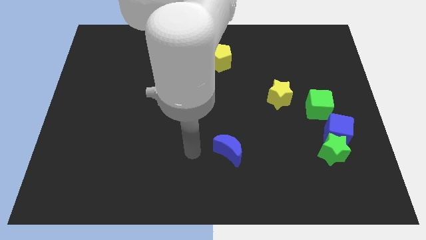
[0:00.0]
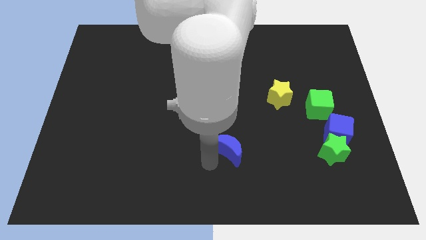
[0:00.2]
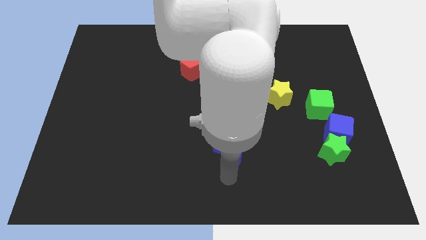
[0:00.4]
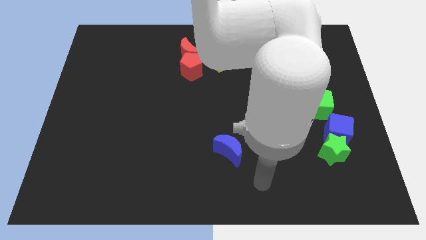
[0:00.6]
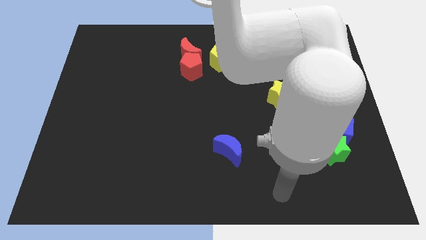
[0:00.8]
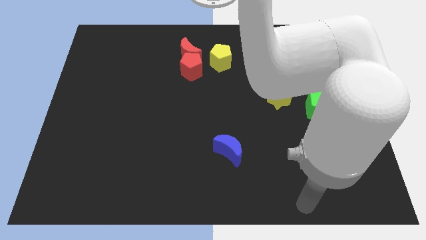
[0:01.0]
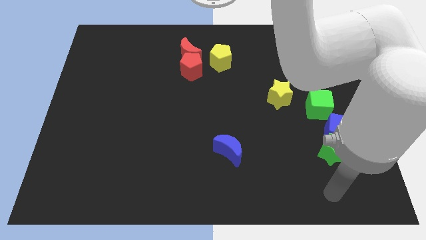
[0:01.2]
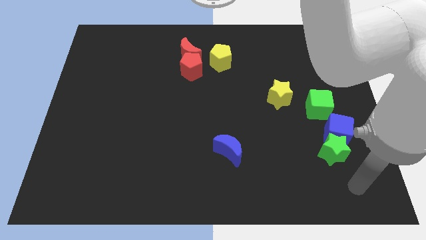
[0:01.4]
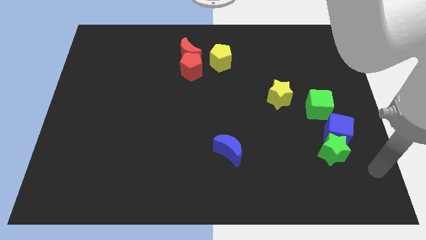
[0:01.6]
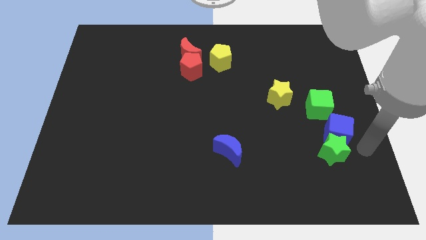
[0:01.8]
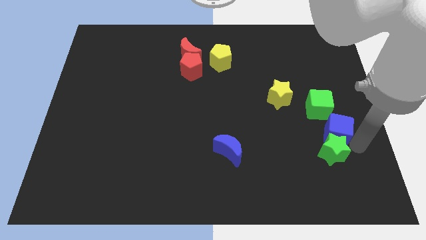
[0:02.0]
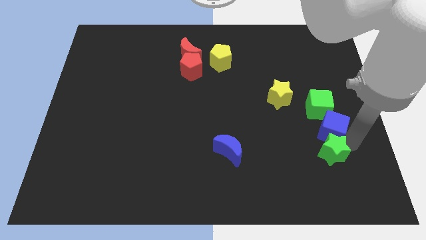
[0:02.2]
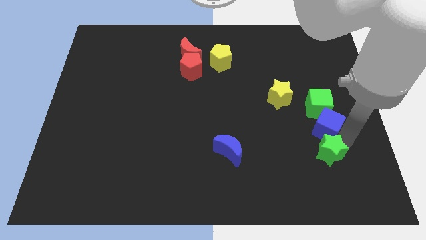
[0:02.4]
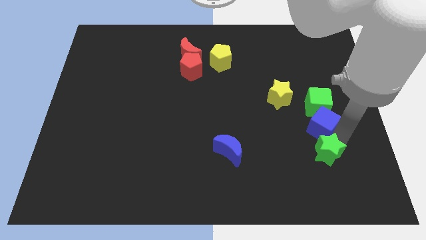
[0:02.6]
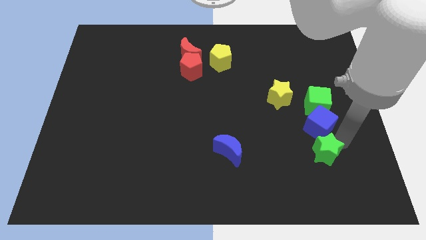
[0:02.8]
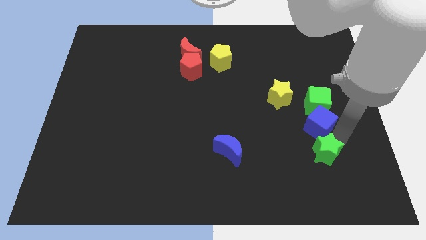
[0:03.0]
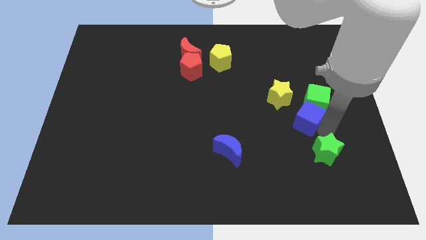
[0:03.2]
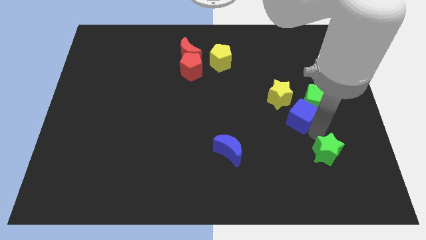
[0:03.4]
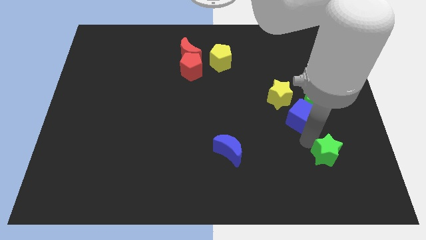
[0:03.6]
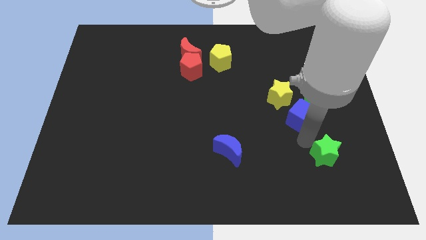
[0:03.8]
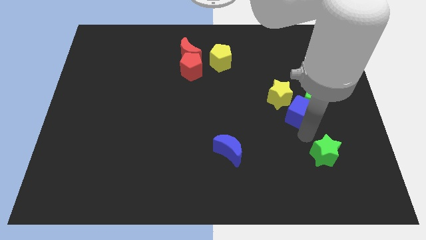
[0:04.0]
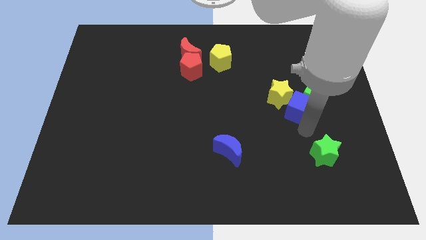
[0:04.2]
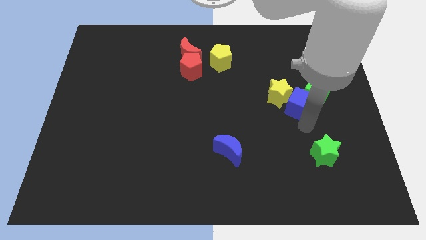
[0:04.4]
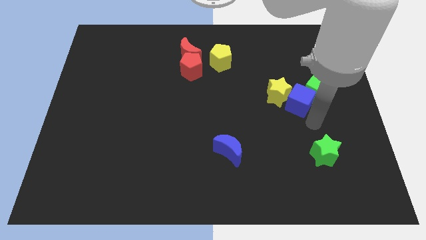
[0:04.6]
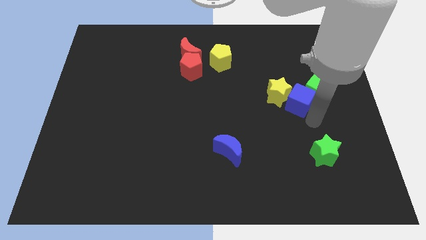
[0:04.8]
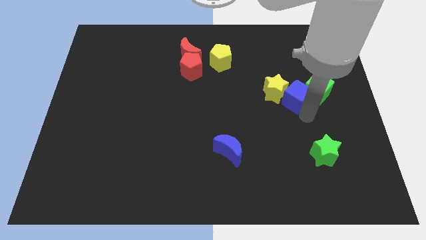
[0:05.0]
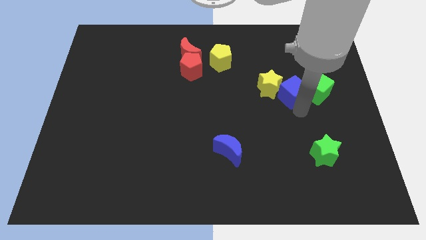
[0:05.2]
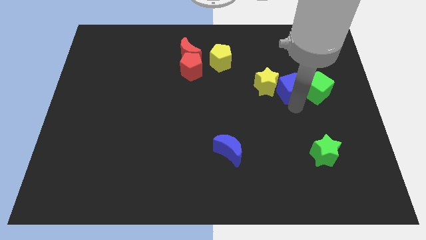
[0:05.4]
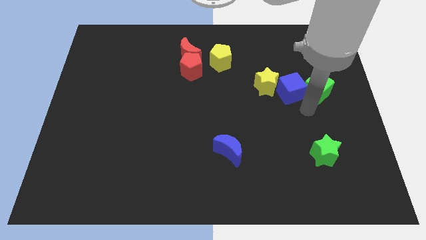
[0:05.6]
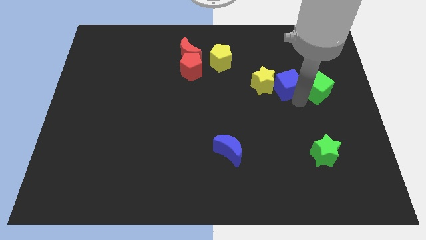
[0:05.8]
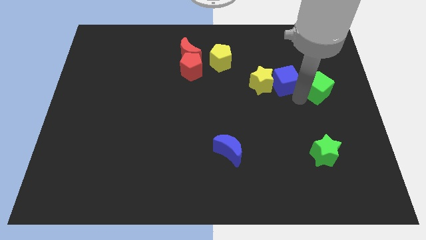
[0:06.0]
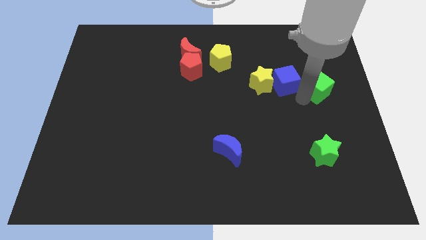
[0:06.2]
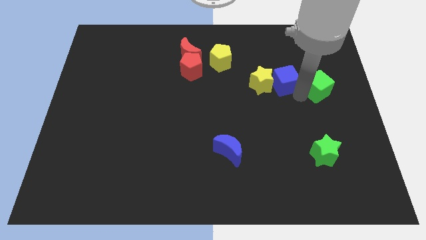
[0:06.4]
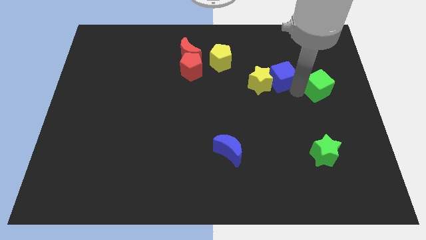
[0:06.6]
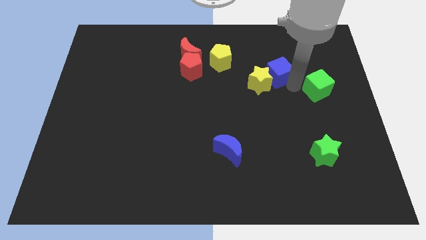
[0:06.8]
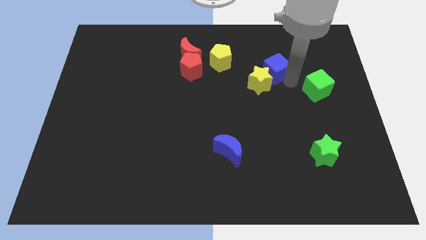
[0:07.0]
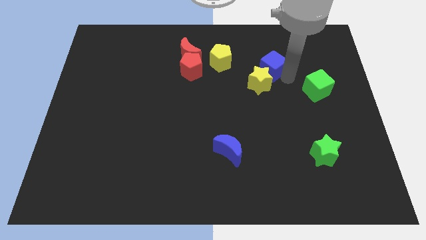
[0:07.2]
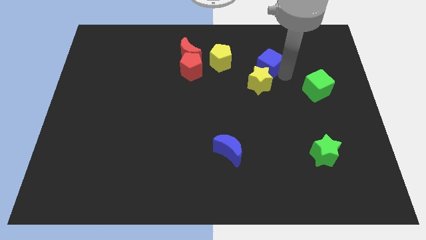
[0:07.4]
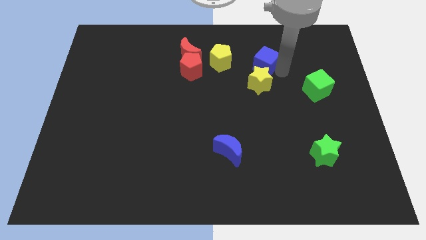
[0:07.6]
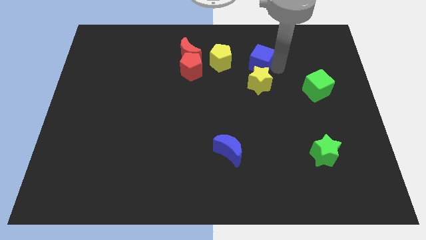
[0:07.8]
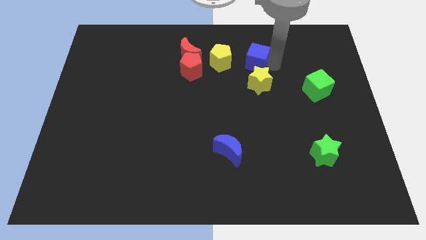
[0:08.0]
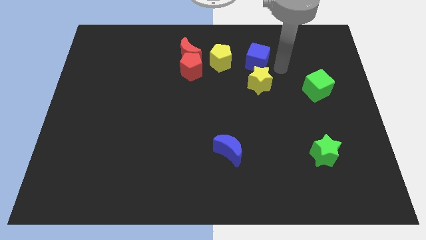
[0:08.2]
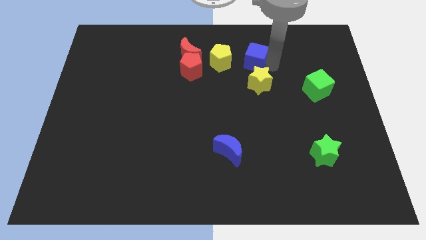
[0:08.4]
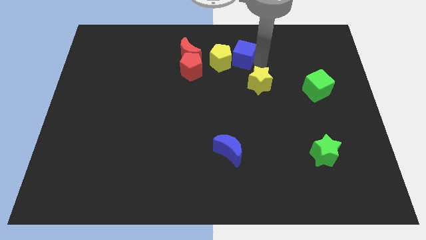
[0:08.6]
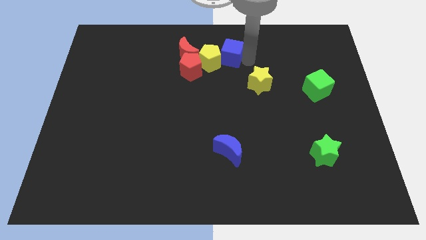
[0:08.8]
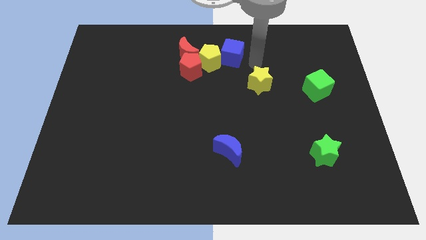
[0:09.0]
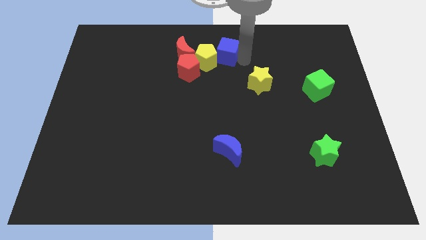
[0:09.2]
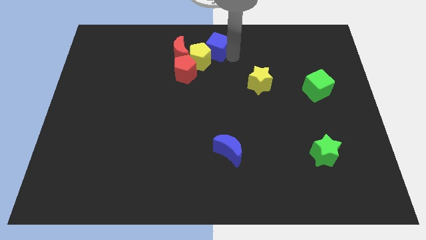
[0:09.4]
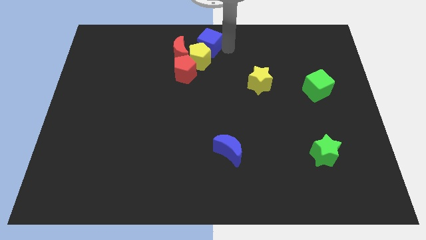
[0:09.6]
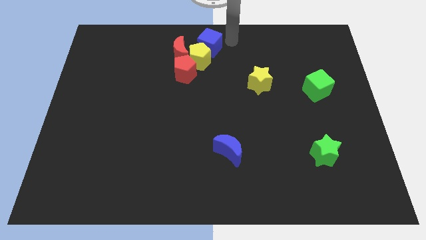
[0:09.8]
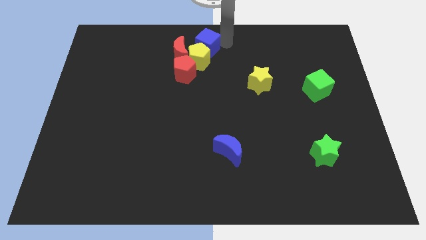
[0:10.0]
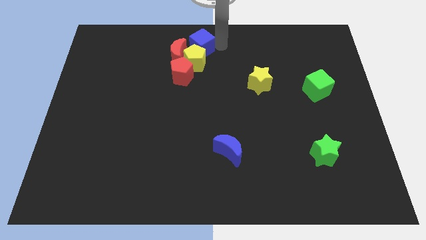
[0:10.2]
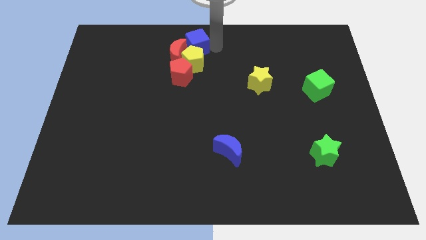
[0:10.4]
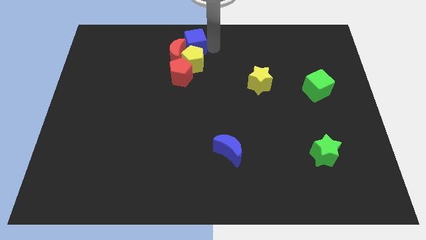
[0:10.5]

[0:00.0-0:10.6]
push the blue cube to the red moon

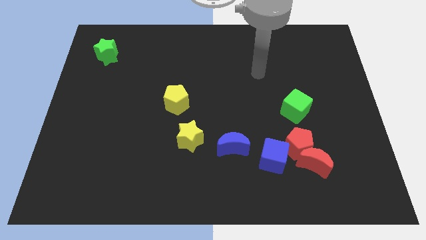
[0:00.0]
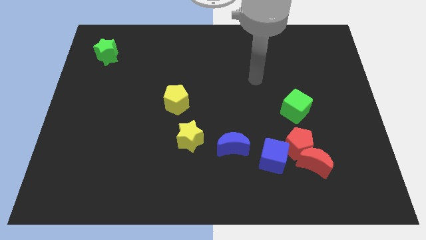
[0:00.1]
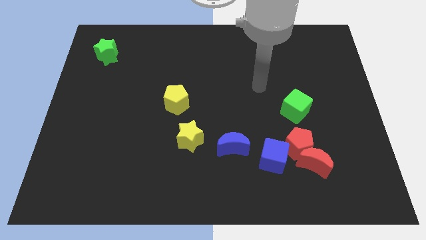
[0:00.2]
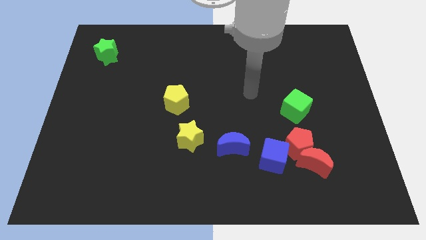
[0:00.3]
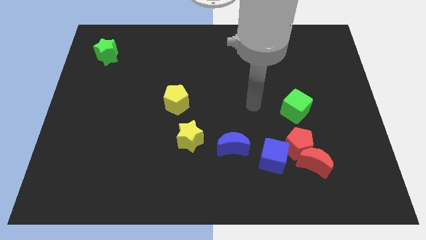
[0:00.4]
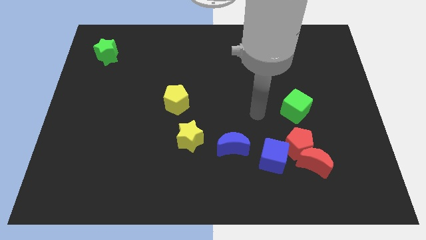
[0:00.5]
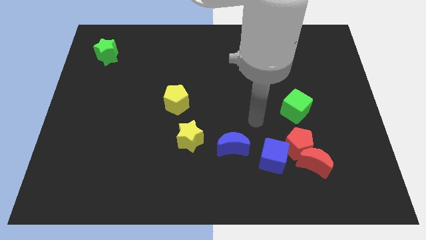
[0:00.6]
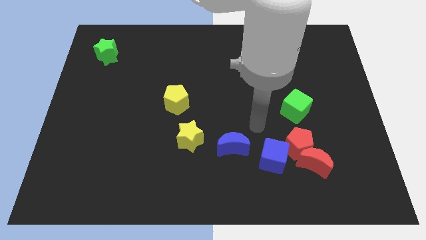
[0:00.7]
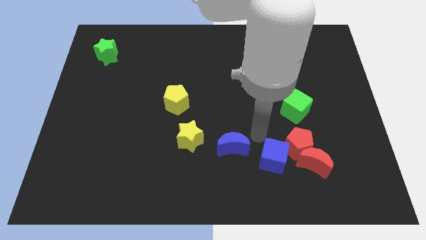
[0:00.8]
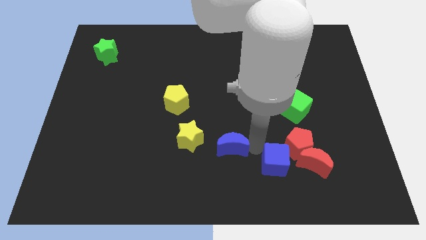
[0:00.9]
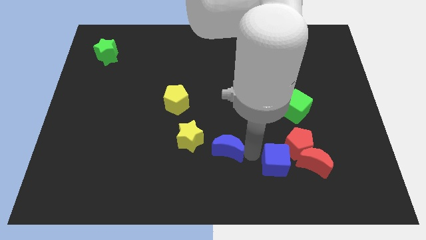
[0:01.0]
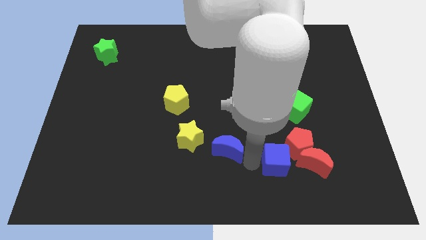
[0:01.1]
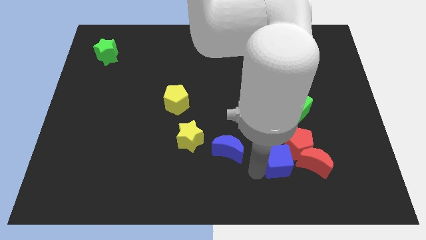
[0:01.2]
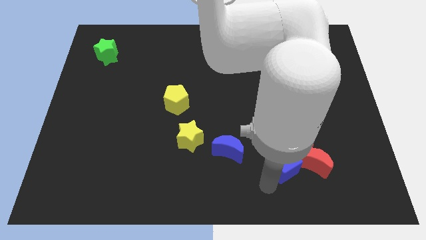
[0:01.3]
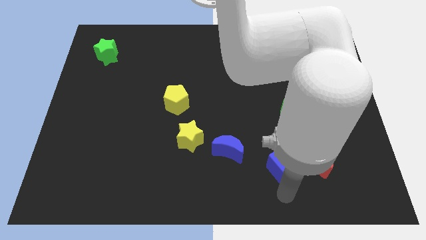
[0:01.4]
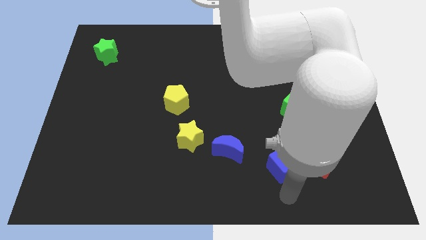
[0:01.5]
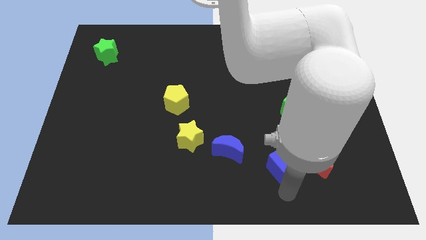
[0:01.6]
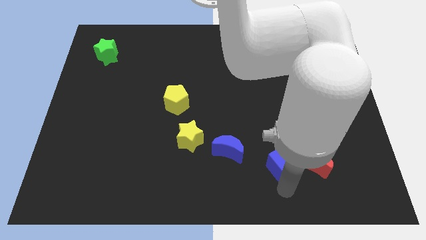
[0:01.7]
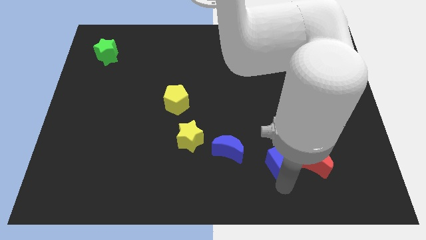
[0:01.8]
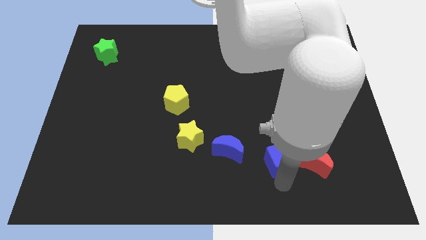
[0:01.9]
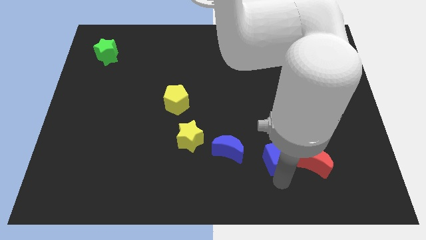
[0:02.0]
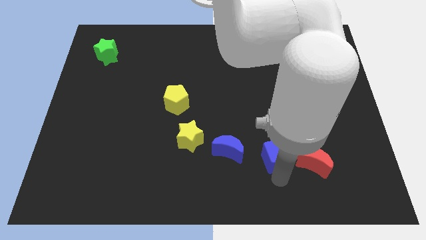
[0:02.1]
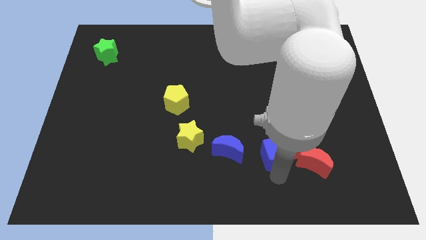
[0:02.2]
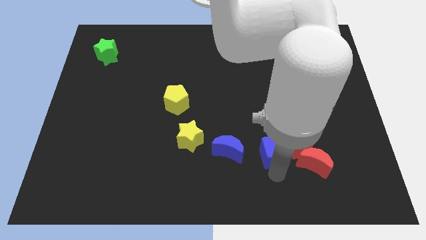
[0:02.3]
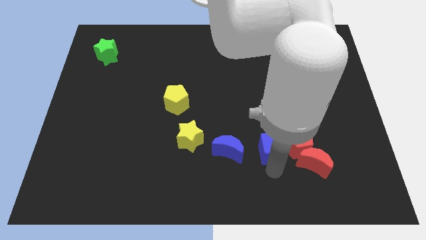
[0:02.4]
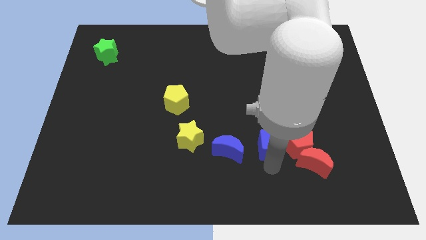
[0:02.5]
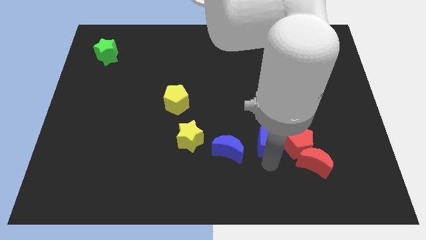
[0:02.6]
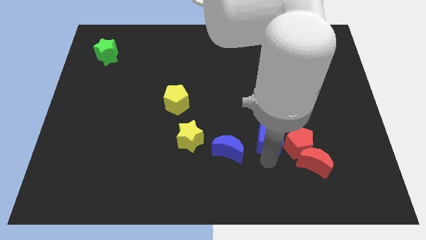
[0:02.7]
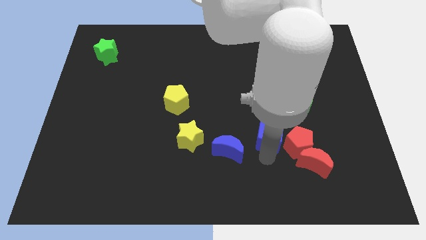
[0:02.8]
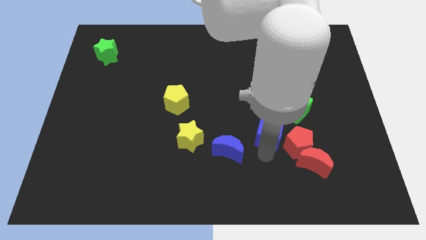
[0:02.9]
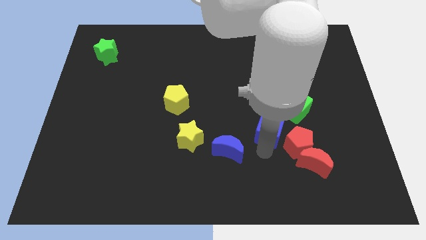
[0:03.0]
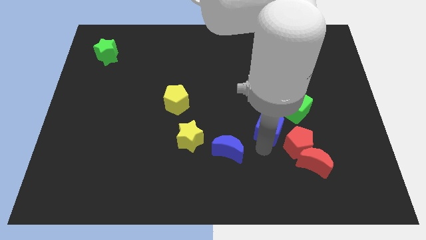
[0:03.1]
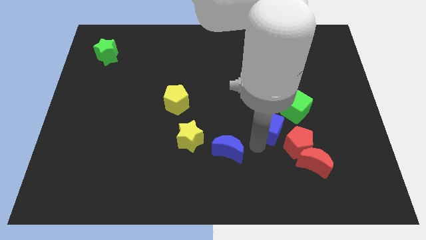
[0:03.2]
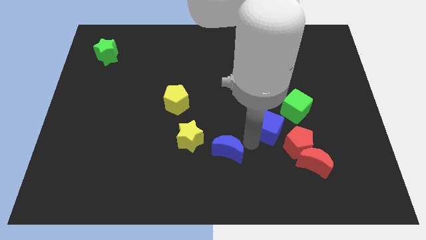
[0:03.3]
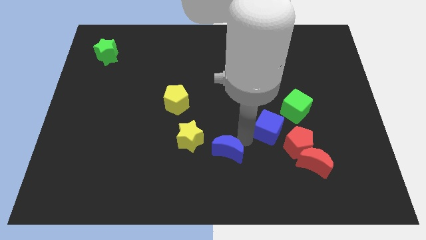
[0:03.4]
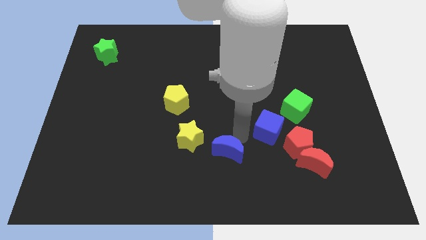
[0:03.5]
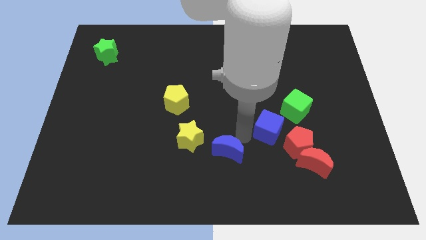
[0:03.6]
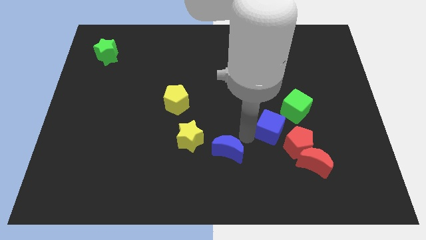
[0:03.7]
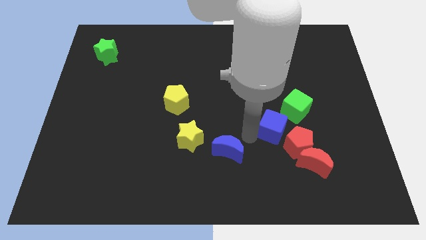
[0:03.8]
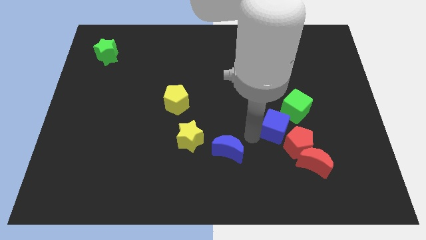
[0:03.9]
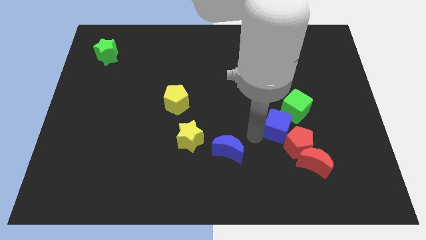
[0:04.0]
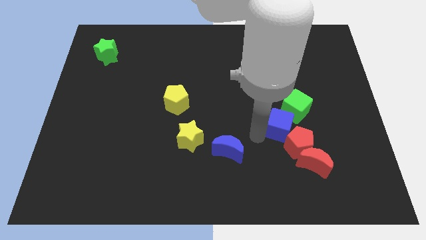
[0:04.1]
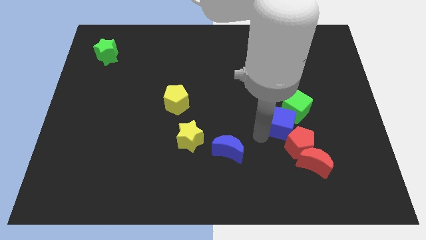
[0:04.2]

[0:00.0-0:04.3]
put the blue cube to the green cube
